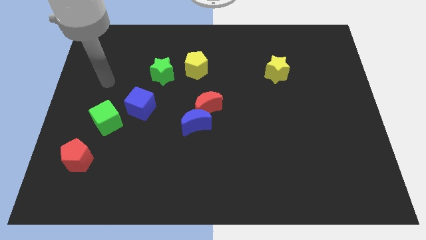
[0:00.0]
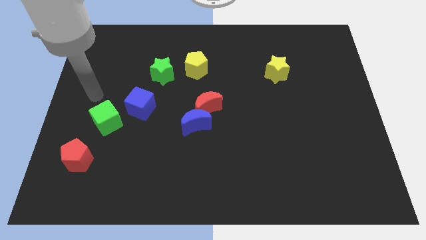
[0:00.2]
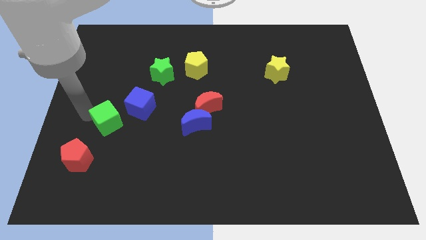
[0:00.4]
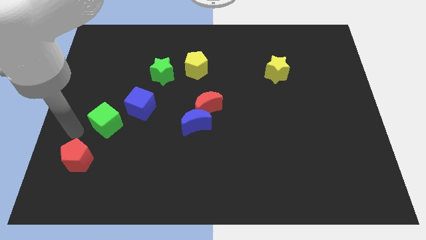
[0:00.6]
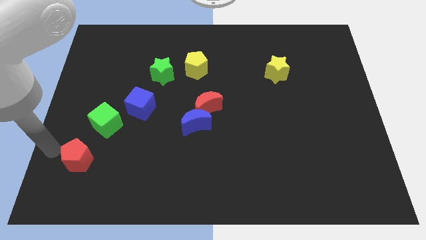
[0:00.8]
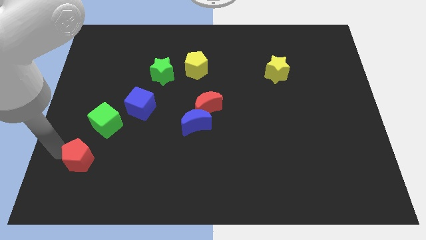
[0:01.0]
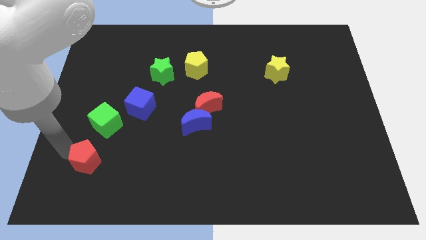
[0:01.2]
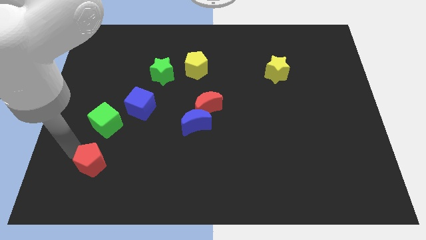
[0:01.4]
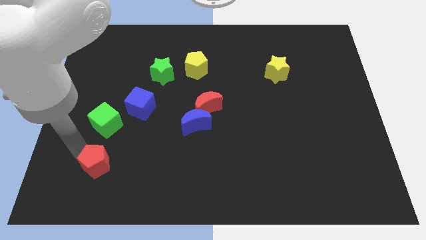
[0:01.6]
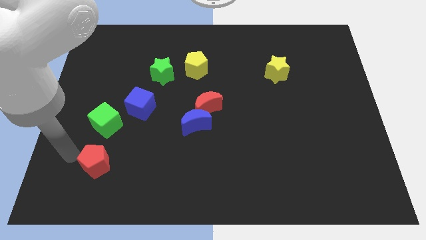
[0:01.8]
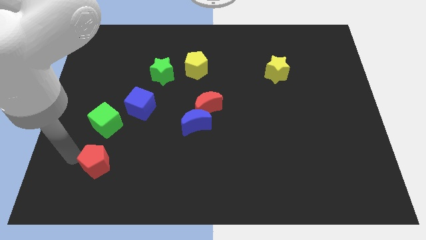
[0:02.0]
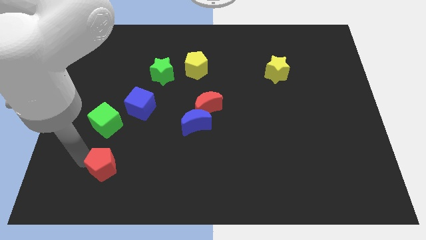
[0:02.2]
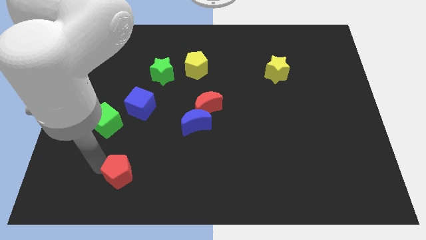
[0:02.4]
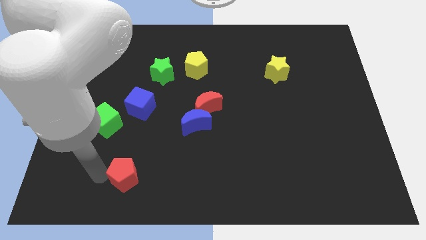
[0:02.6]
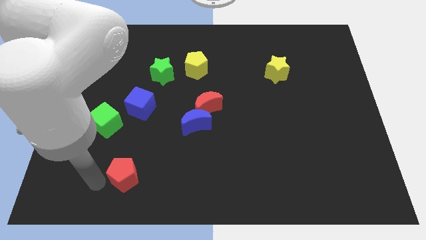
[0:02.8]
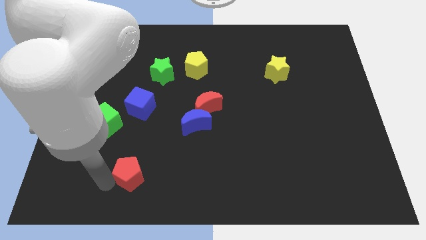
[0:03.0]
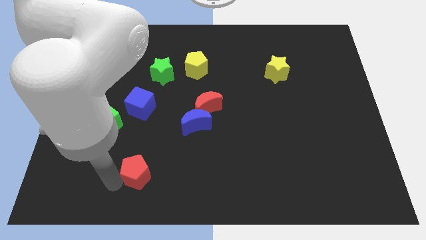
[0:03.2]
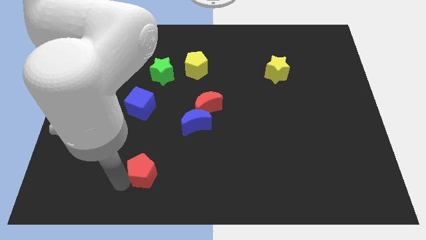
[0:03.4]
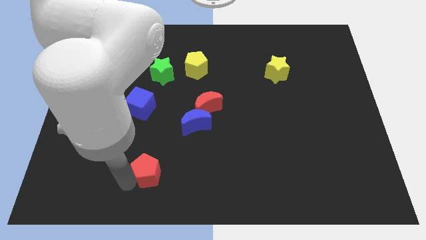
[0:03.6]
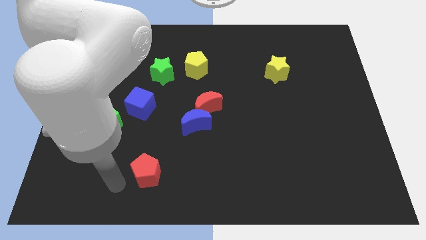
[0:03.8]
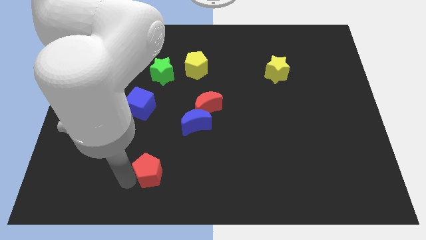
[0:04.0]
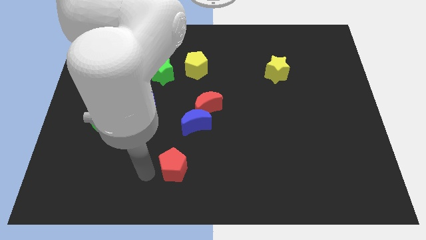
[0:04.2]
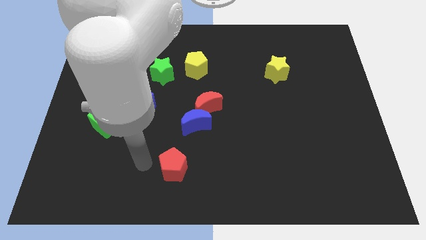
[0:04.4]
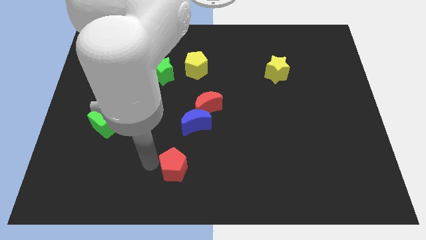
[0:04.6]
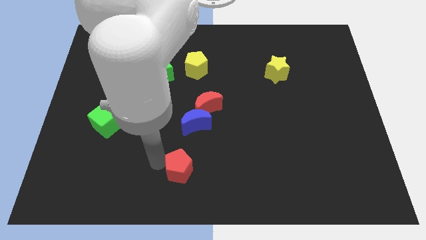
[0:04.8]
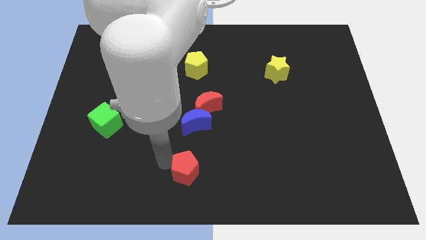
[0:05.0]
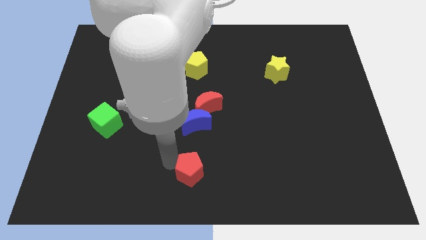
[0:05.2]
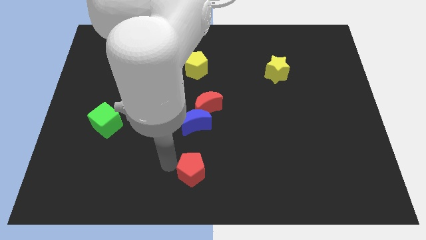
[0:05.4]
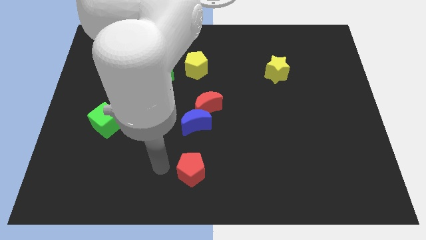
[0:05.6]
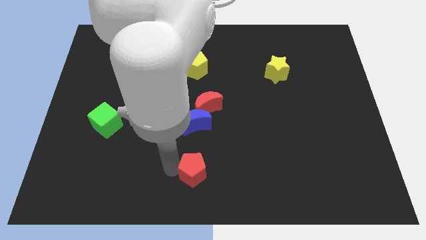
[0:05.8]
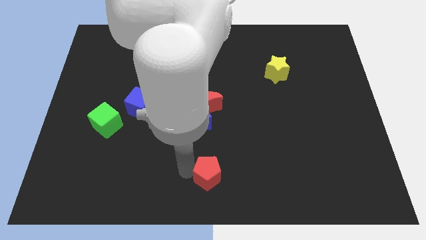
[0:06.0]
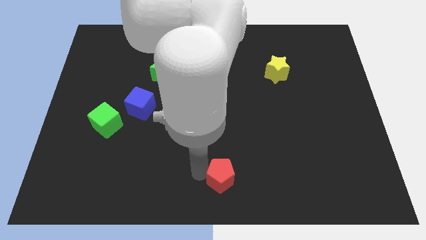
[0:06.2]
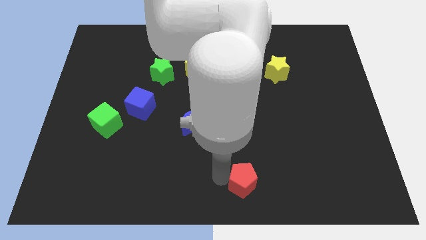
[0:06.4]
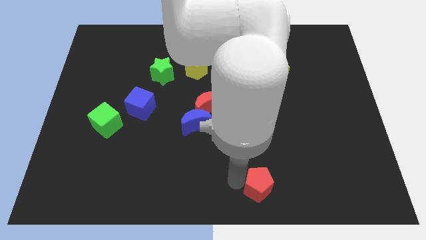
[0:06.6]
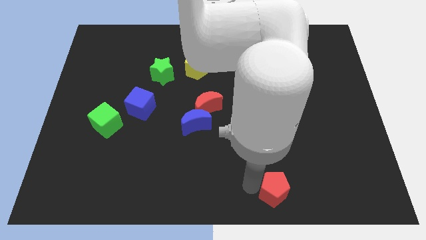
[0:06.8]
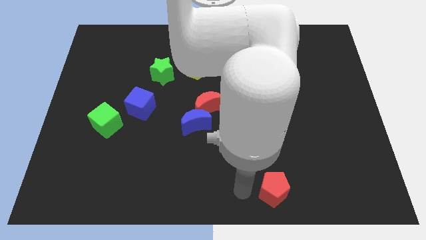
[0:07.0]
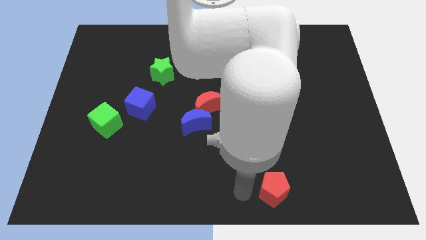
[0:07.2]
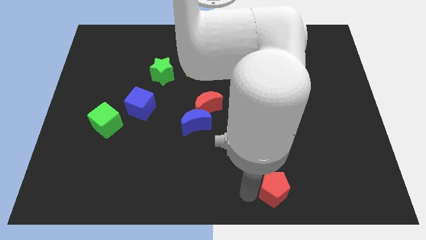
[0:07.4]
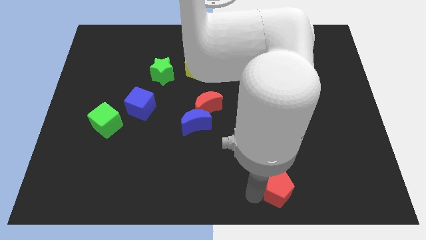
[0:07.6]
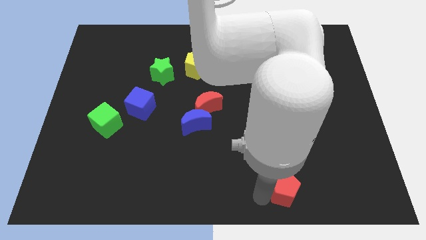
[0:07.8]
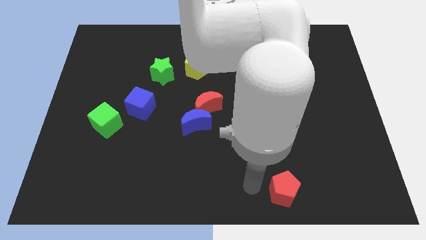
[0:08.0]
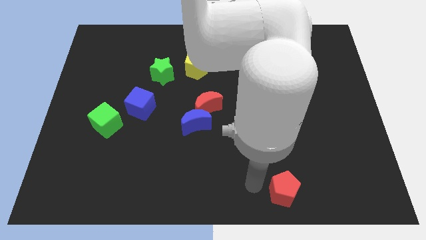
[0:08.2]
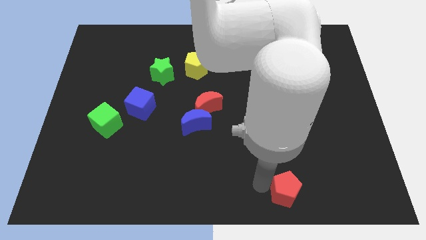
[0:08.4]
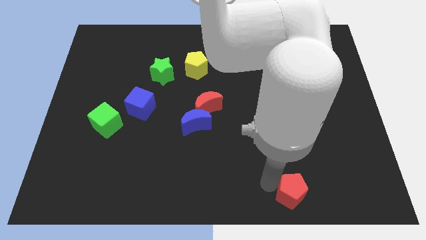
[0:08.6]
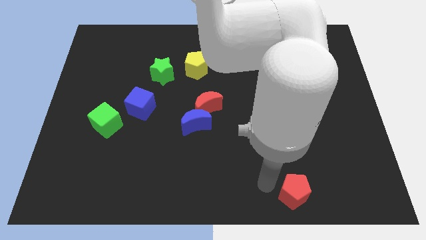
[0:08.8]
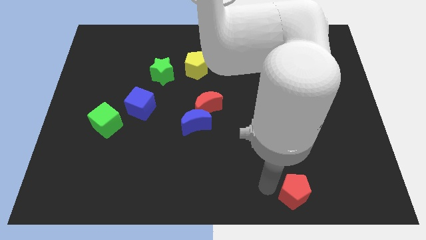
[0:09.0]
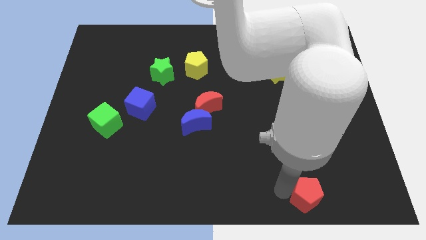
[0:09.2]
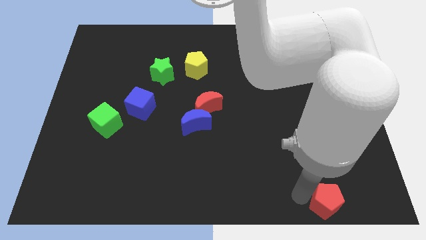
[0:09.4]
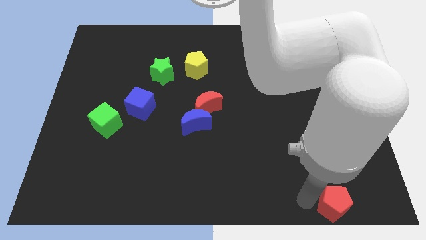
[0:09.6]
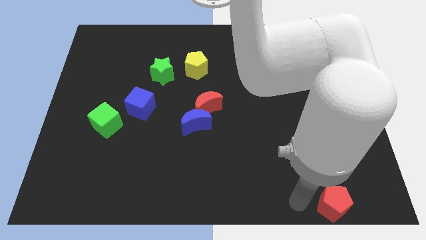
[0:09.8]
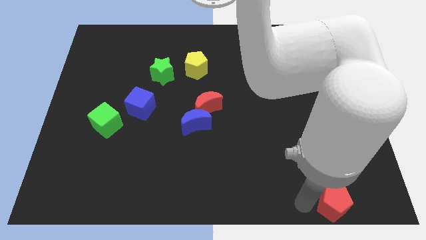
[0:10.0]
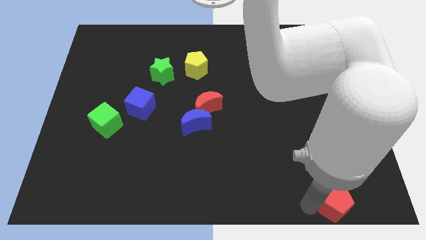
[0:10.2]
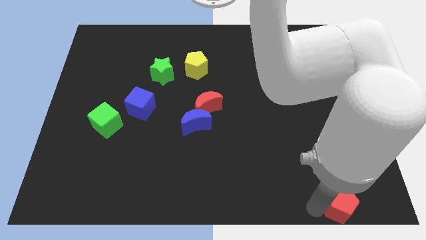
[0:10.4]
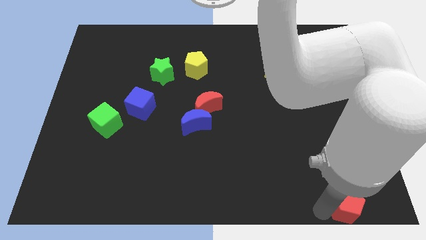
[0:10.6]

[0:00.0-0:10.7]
move the red pentagon to the bottom right

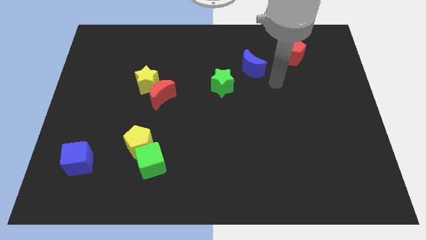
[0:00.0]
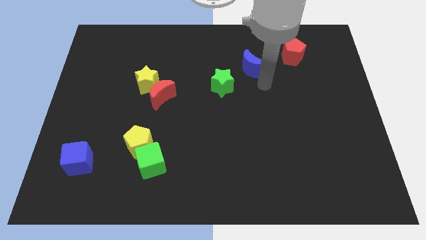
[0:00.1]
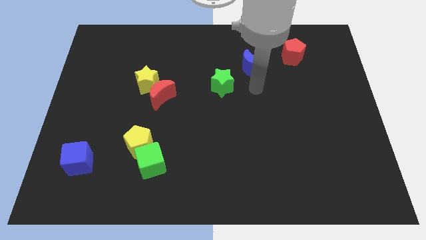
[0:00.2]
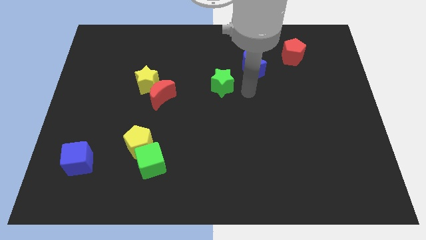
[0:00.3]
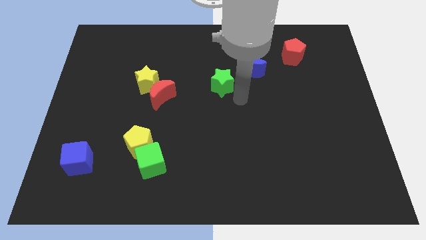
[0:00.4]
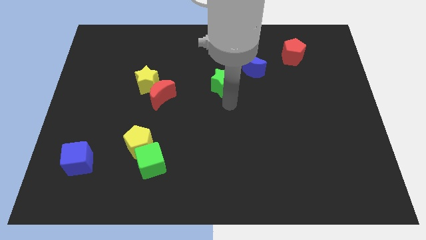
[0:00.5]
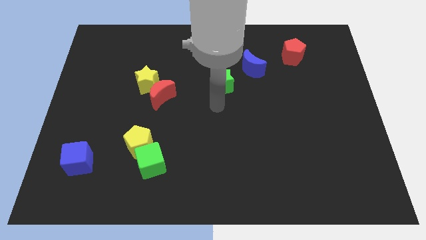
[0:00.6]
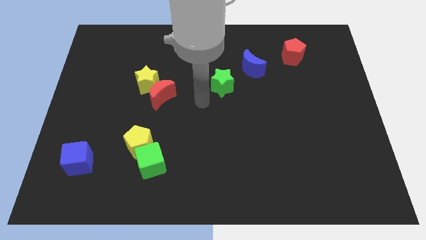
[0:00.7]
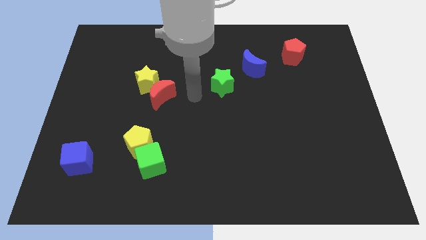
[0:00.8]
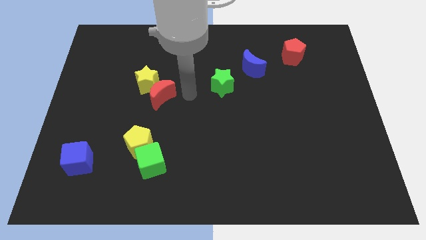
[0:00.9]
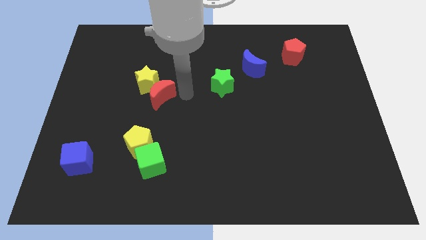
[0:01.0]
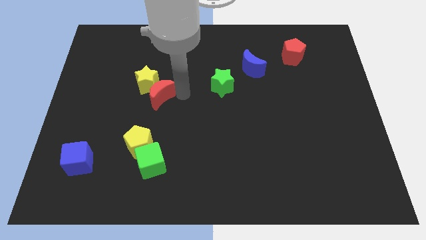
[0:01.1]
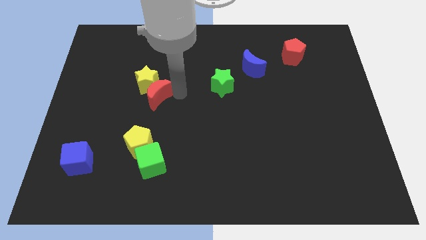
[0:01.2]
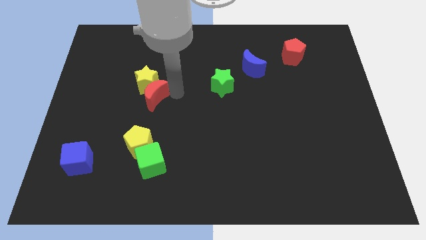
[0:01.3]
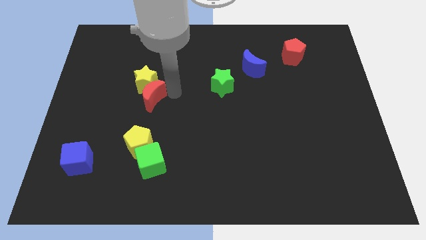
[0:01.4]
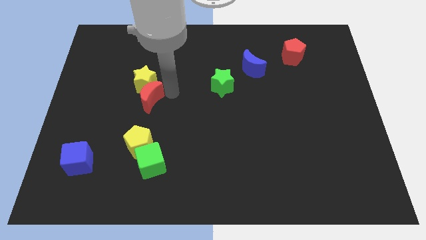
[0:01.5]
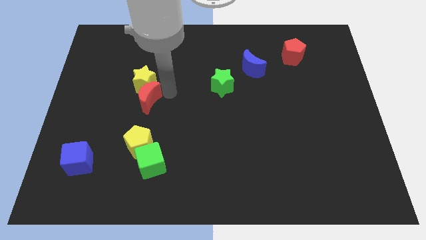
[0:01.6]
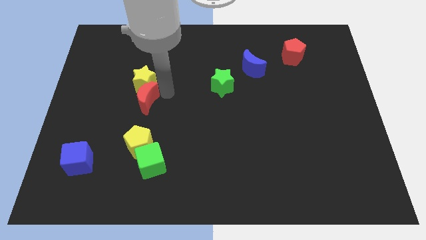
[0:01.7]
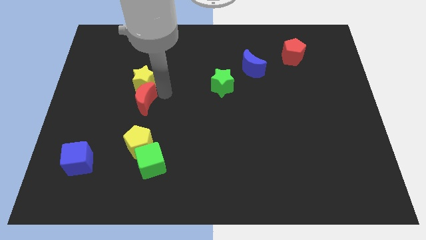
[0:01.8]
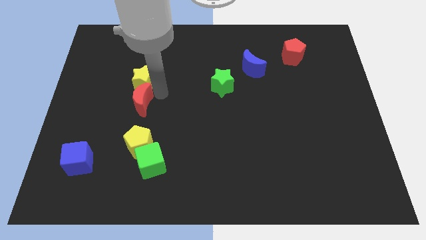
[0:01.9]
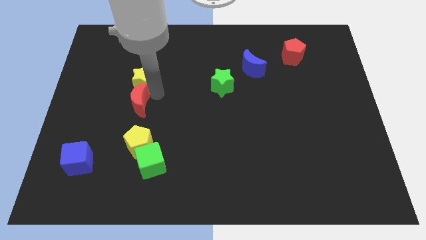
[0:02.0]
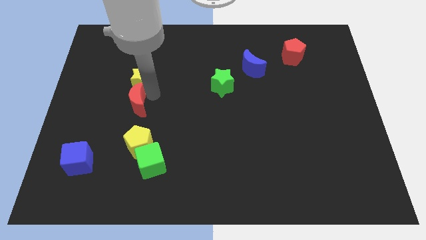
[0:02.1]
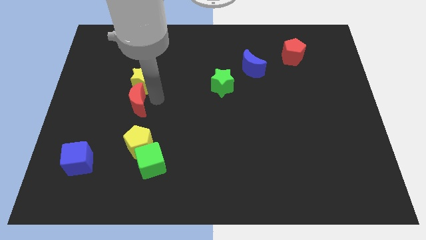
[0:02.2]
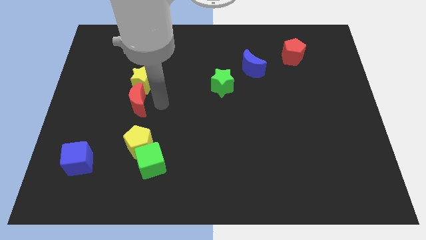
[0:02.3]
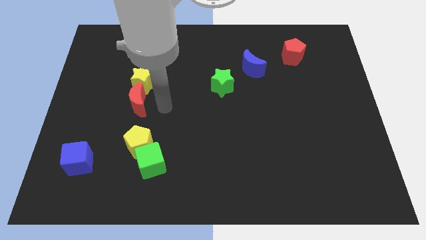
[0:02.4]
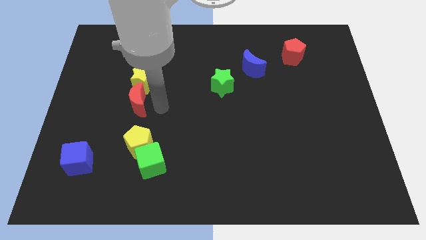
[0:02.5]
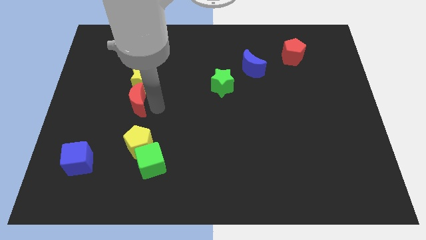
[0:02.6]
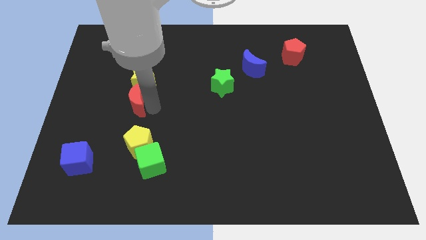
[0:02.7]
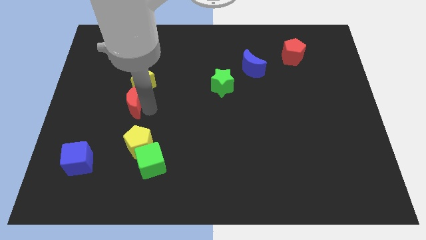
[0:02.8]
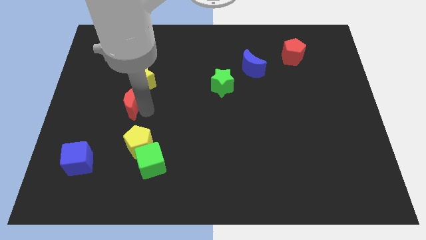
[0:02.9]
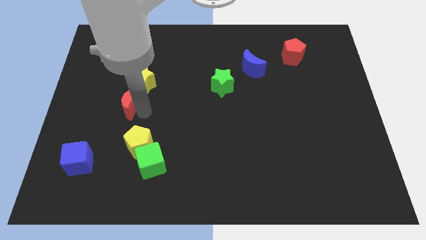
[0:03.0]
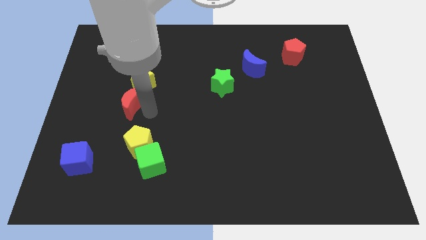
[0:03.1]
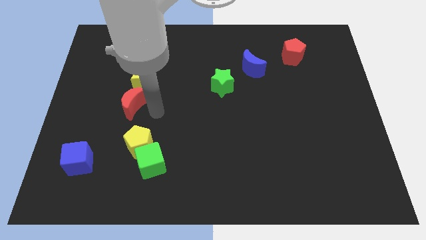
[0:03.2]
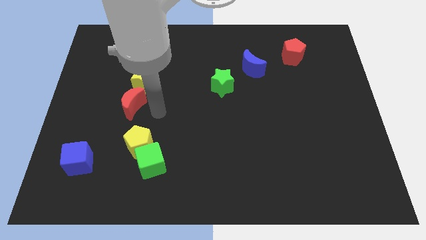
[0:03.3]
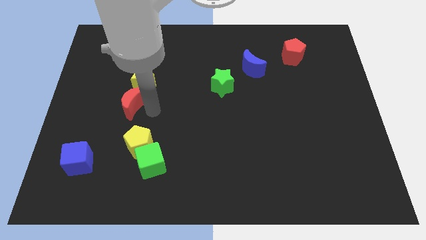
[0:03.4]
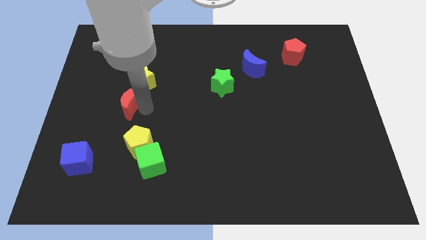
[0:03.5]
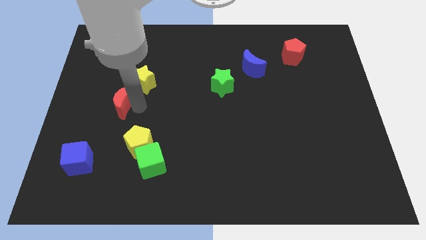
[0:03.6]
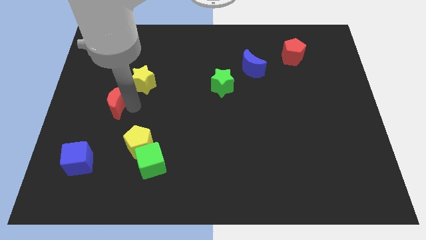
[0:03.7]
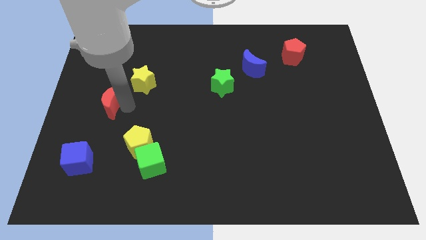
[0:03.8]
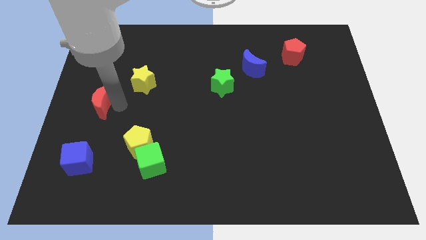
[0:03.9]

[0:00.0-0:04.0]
put the red moon to the left side
